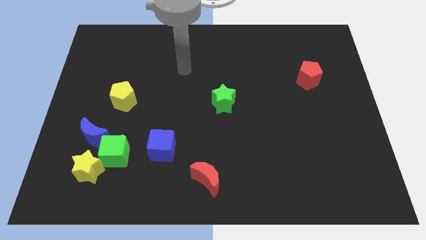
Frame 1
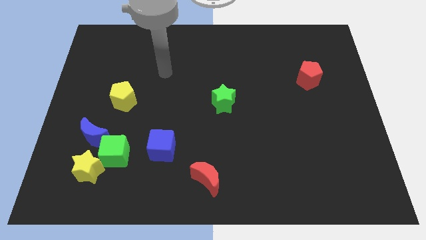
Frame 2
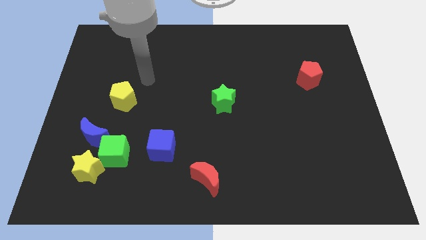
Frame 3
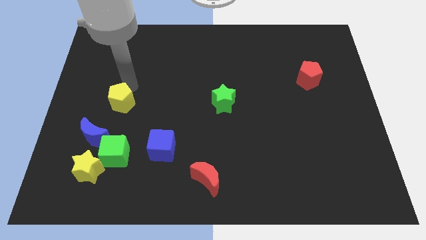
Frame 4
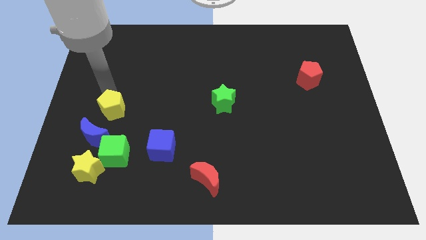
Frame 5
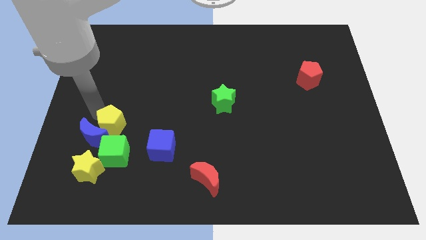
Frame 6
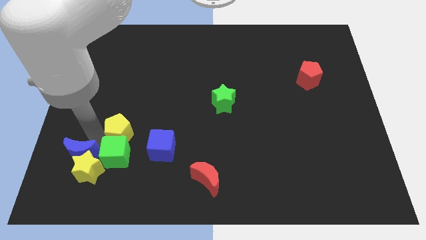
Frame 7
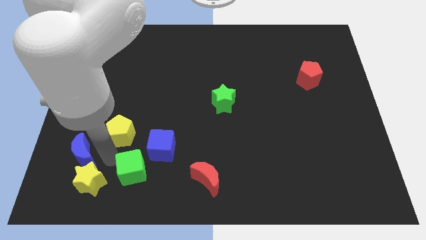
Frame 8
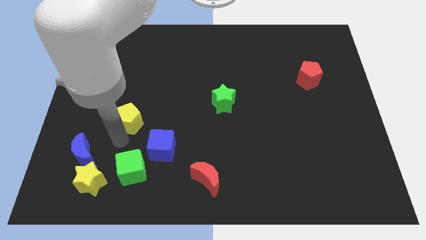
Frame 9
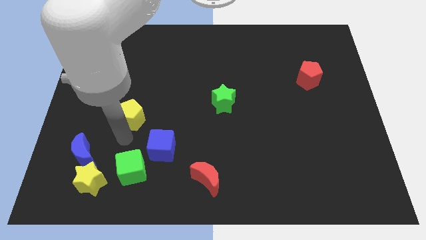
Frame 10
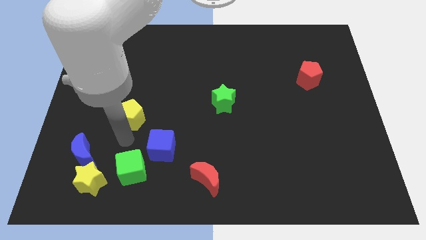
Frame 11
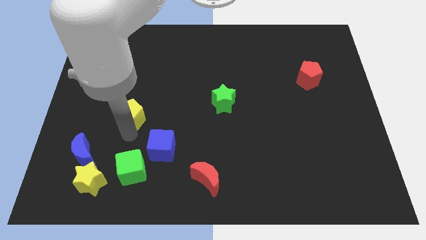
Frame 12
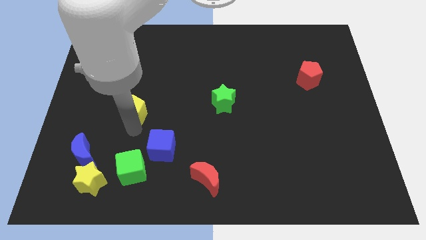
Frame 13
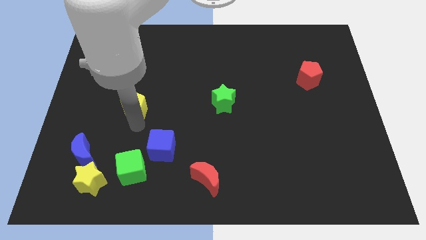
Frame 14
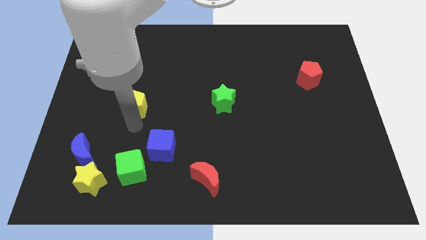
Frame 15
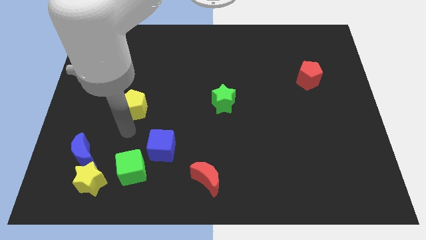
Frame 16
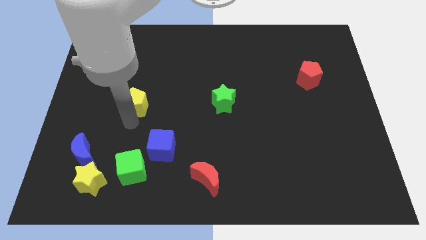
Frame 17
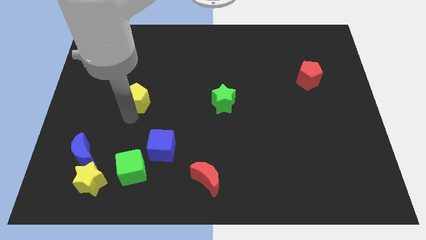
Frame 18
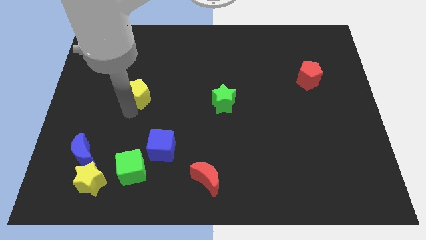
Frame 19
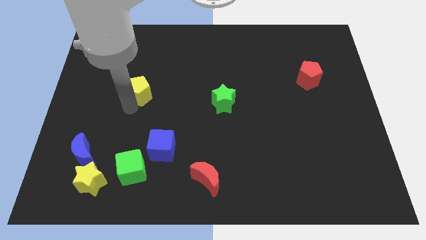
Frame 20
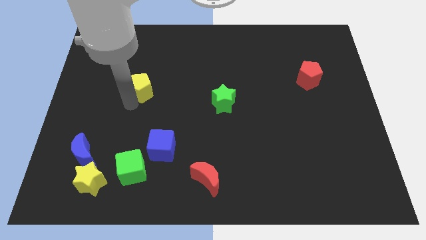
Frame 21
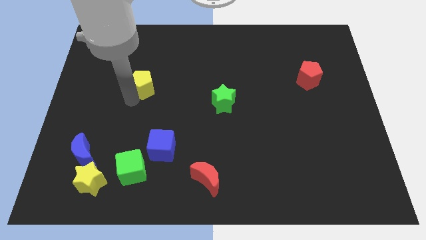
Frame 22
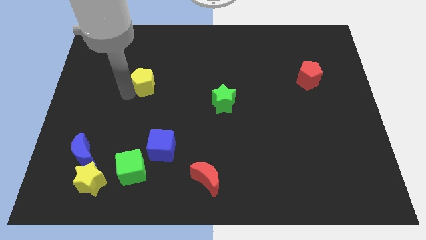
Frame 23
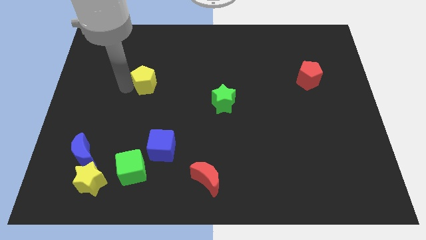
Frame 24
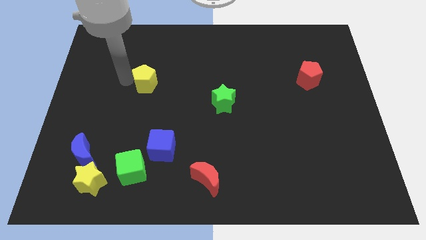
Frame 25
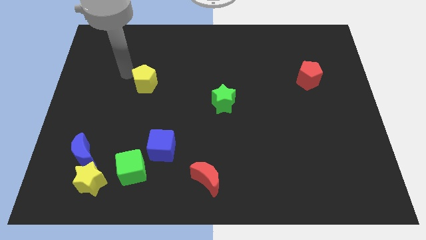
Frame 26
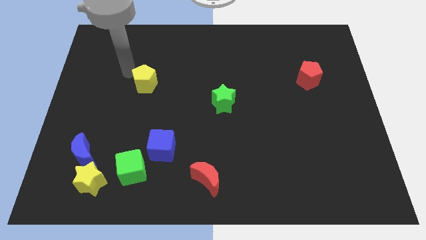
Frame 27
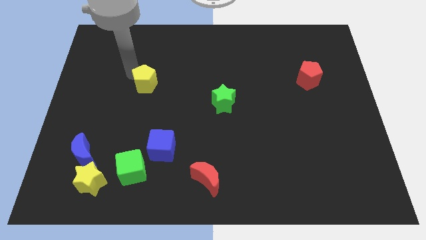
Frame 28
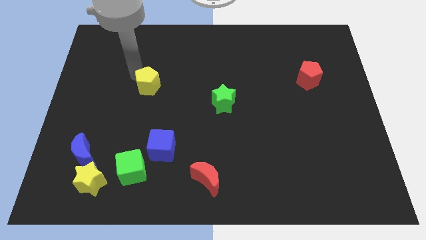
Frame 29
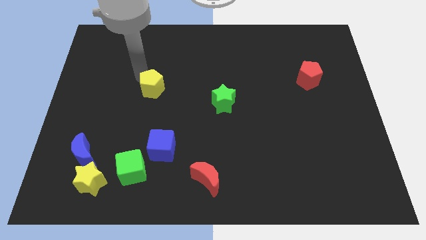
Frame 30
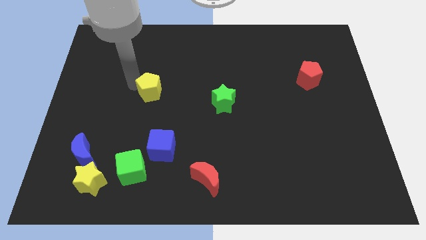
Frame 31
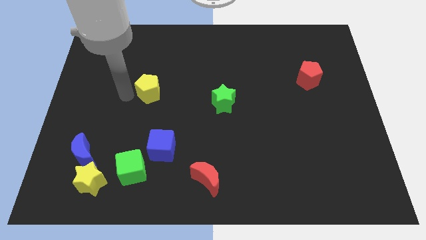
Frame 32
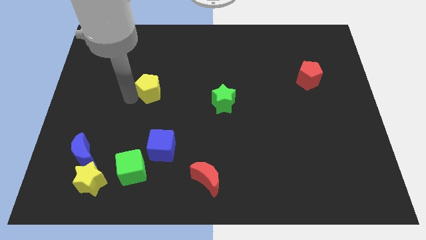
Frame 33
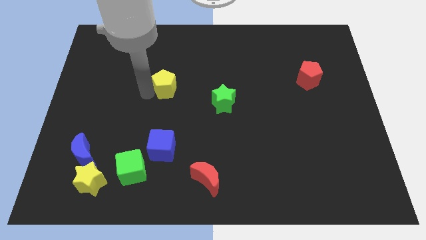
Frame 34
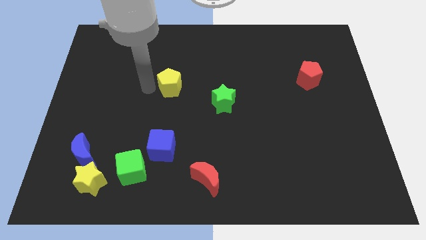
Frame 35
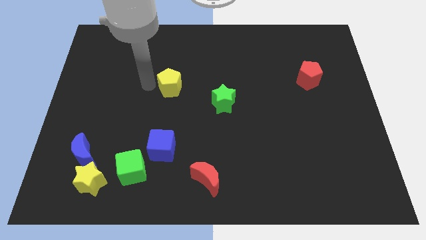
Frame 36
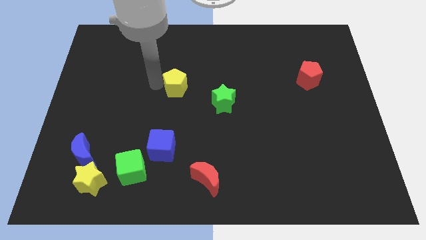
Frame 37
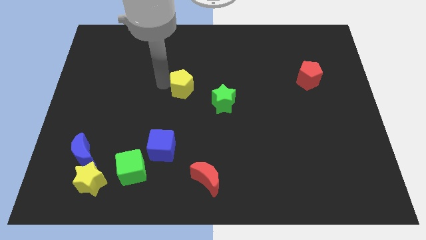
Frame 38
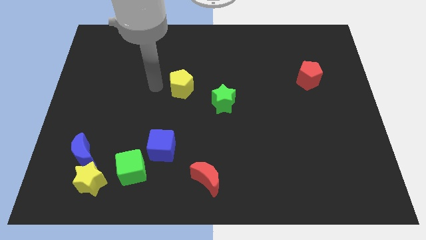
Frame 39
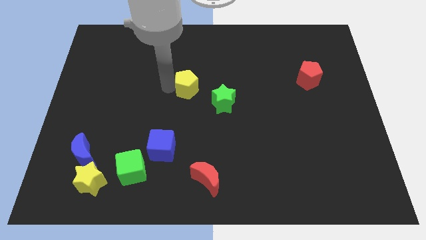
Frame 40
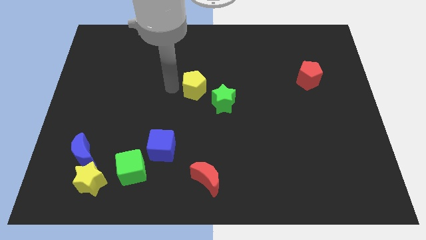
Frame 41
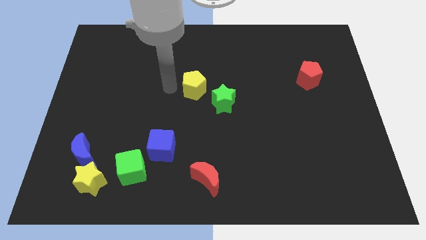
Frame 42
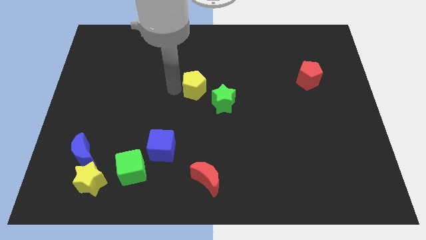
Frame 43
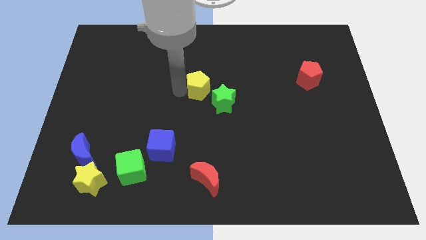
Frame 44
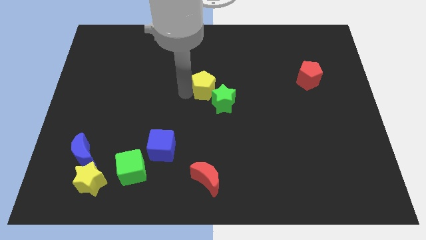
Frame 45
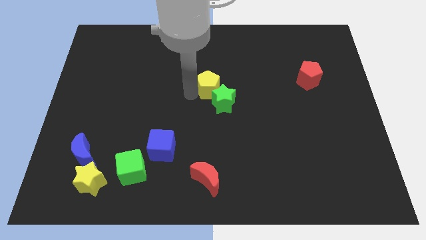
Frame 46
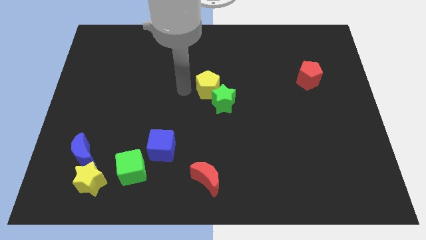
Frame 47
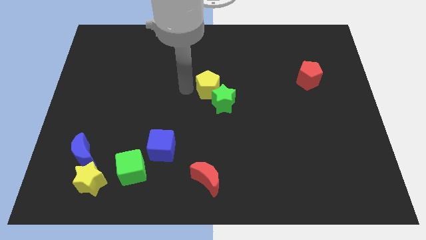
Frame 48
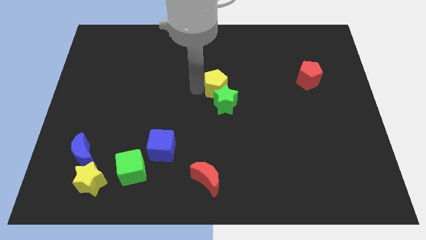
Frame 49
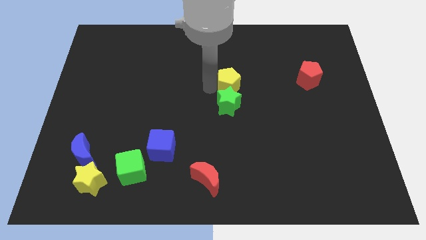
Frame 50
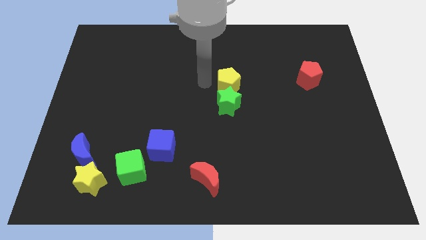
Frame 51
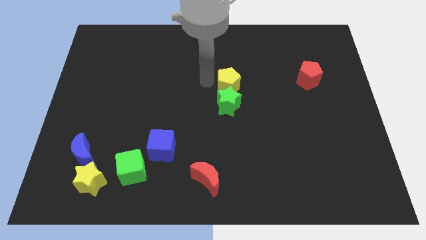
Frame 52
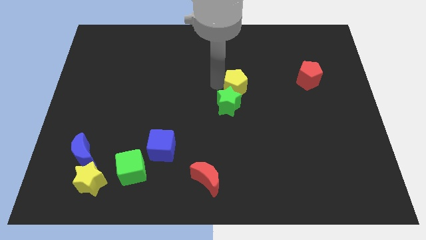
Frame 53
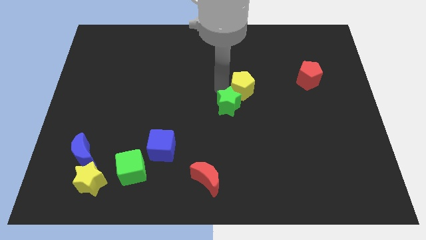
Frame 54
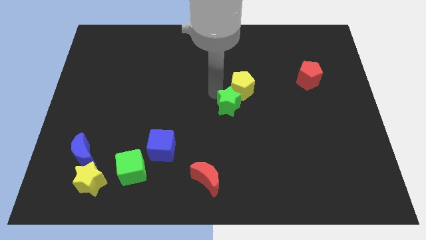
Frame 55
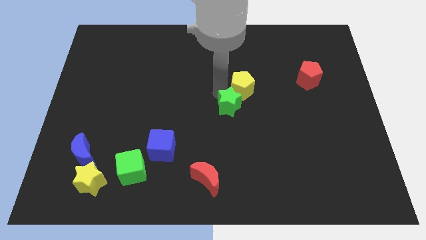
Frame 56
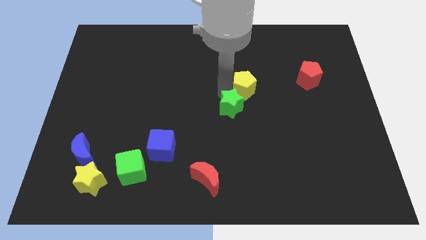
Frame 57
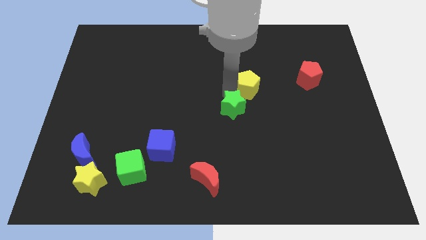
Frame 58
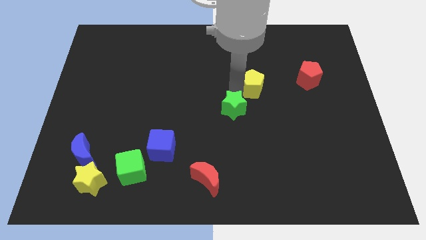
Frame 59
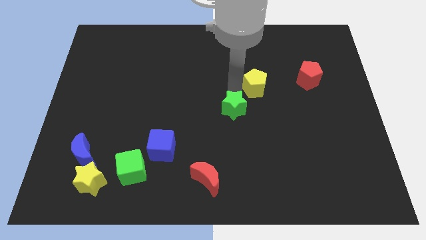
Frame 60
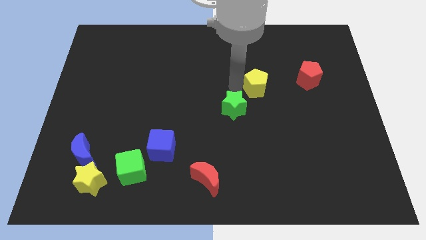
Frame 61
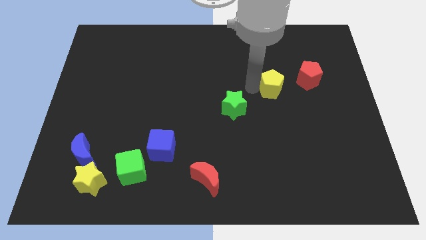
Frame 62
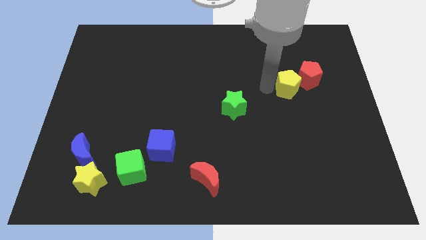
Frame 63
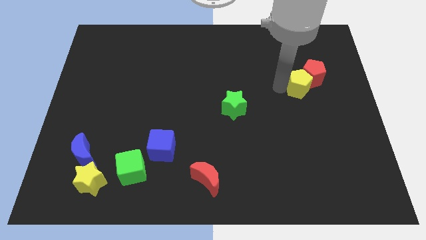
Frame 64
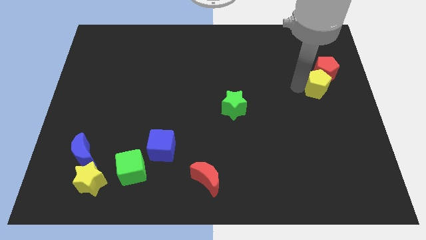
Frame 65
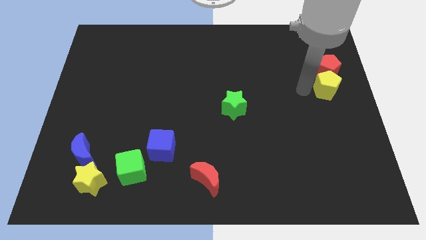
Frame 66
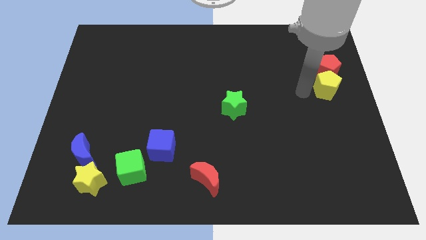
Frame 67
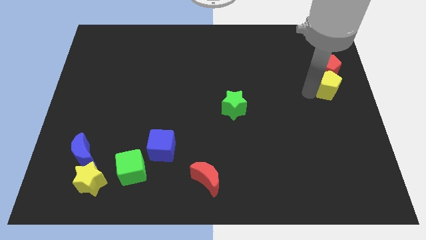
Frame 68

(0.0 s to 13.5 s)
slide the yellow pentagon to the bottom right side of the red pentagon

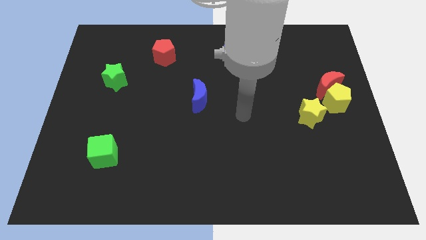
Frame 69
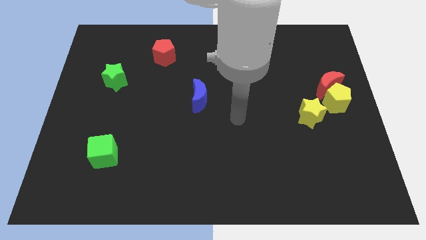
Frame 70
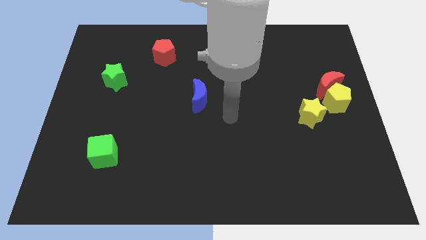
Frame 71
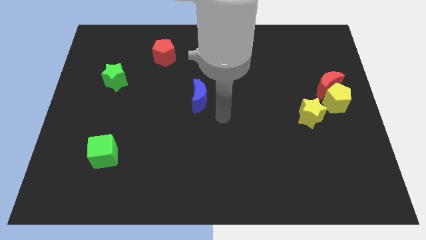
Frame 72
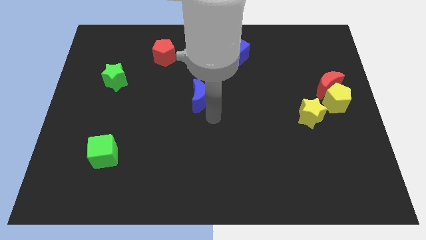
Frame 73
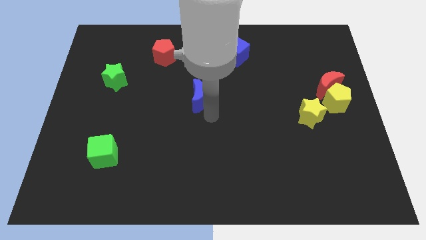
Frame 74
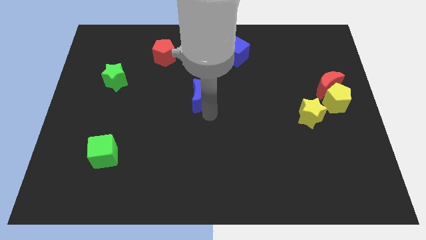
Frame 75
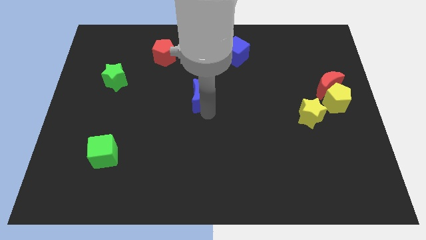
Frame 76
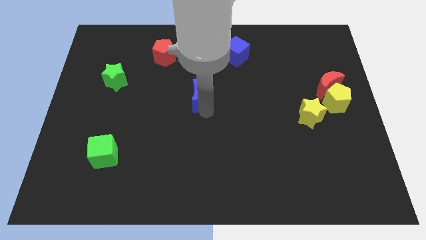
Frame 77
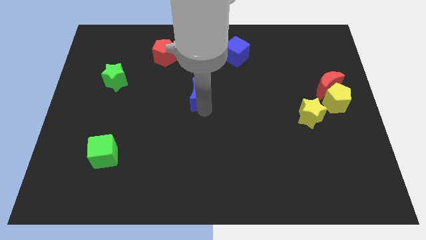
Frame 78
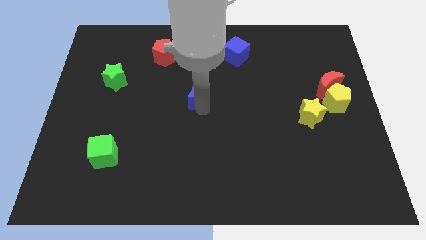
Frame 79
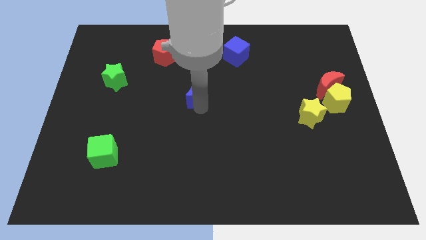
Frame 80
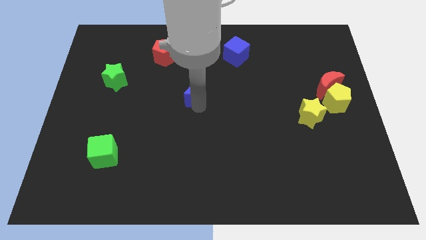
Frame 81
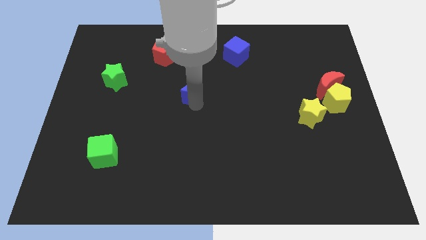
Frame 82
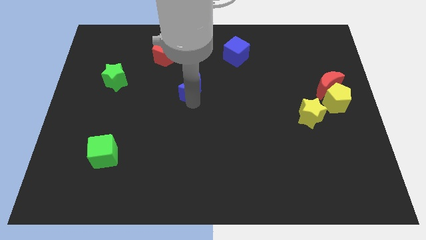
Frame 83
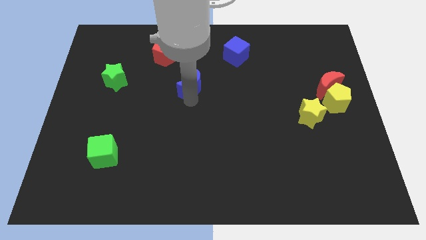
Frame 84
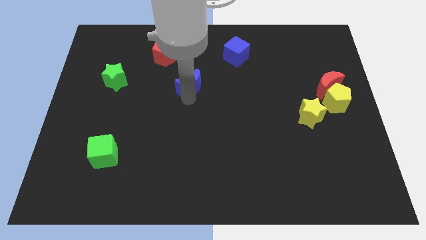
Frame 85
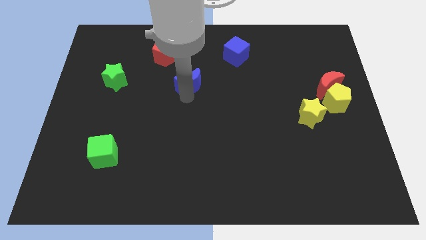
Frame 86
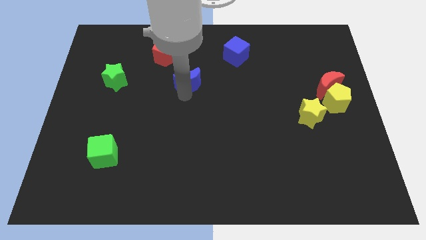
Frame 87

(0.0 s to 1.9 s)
put the blue moon to the bottom right of the red pentagon
